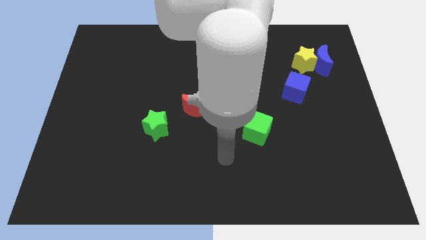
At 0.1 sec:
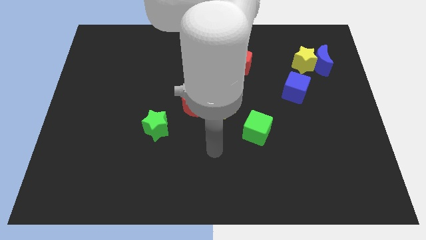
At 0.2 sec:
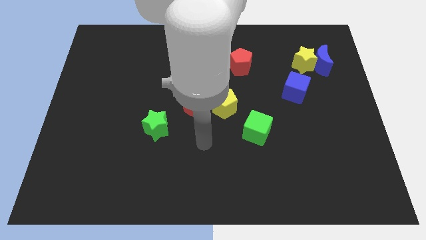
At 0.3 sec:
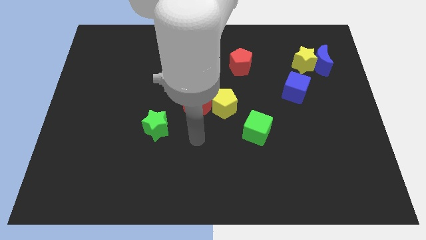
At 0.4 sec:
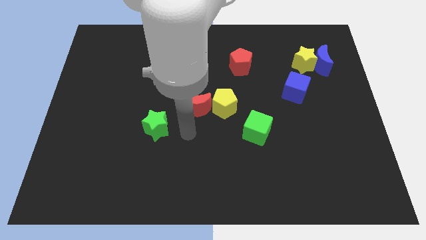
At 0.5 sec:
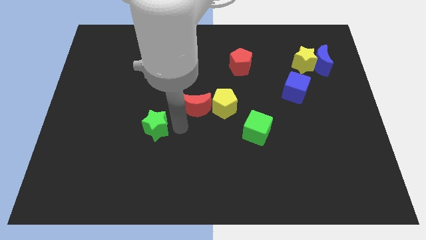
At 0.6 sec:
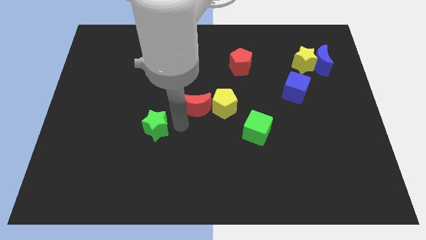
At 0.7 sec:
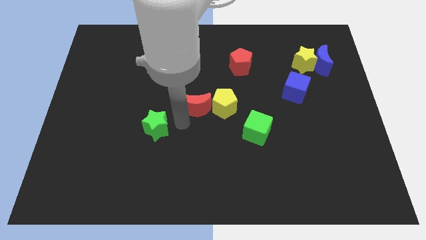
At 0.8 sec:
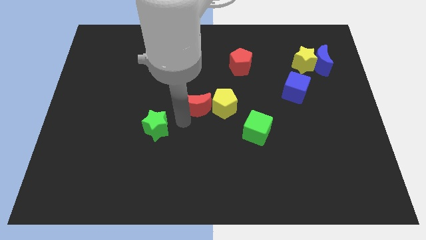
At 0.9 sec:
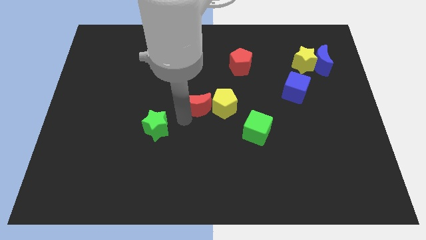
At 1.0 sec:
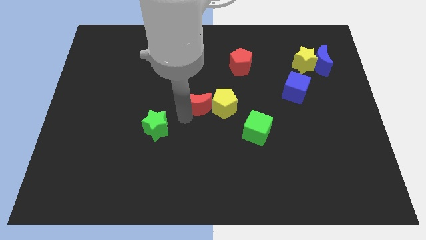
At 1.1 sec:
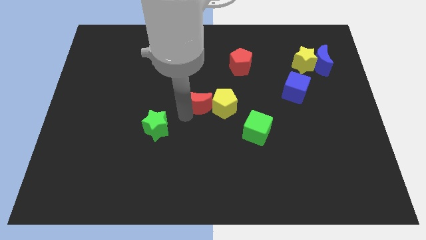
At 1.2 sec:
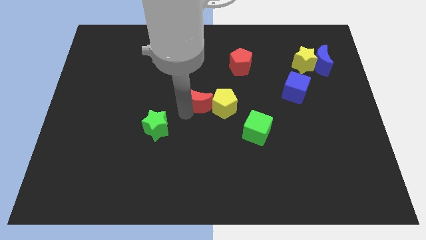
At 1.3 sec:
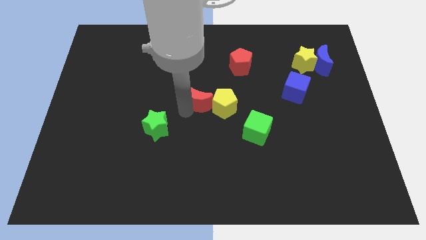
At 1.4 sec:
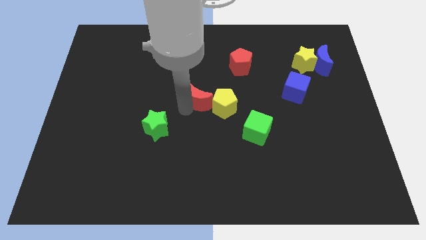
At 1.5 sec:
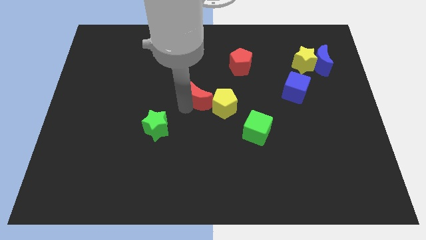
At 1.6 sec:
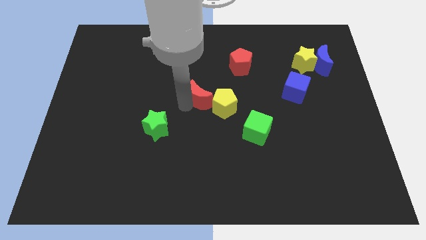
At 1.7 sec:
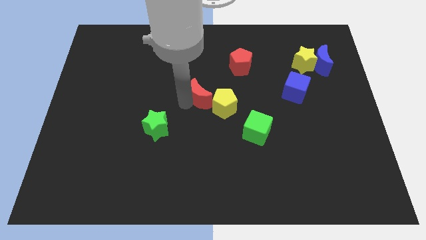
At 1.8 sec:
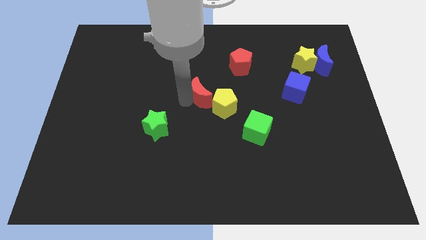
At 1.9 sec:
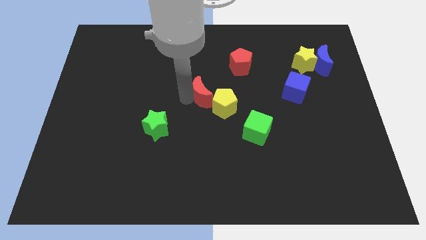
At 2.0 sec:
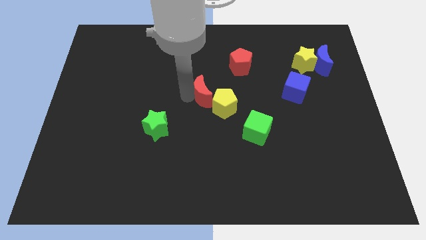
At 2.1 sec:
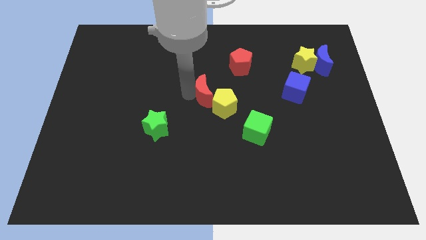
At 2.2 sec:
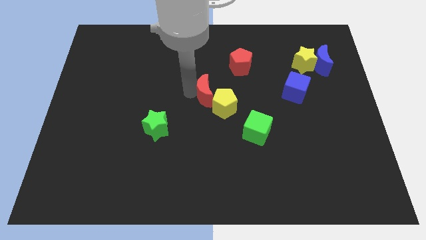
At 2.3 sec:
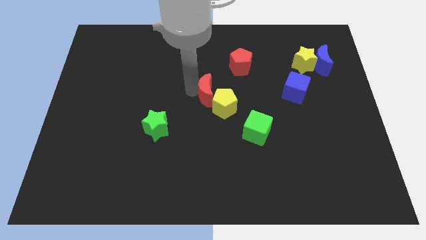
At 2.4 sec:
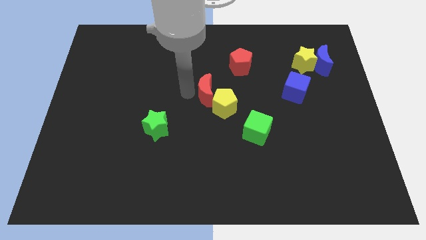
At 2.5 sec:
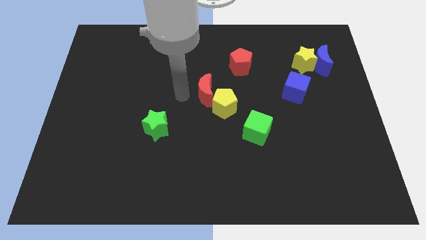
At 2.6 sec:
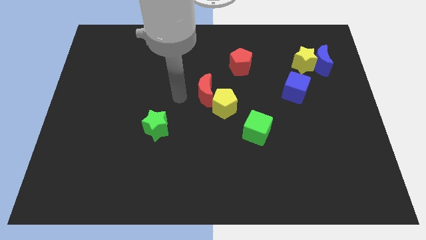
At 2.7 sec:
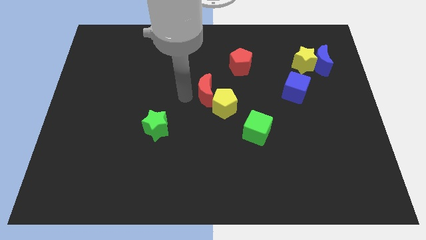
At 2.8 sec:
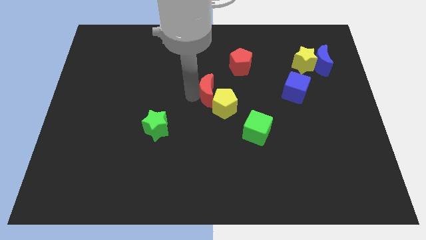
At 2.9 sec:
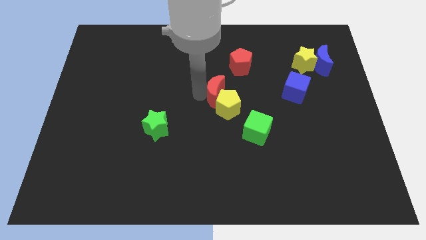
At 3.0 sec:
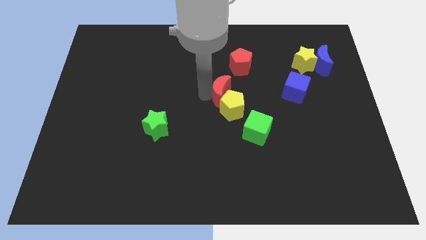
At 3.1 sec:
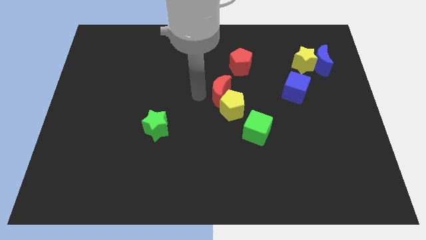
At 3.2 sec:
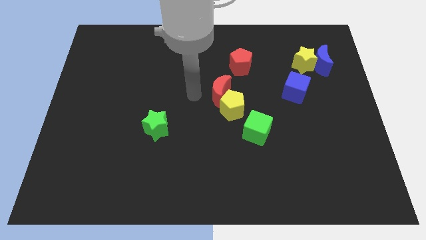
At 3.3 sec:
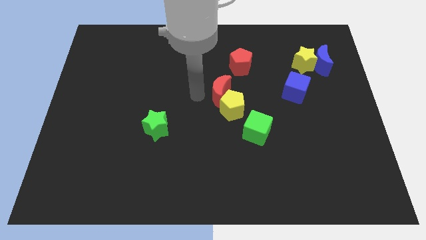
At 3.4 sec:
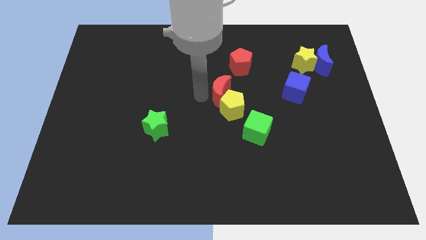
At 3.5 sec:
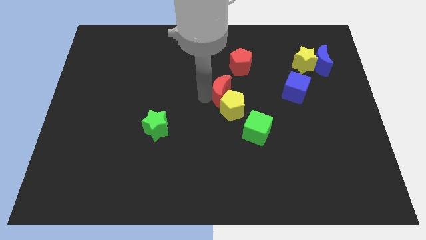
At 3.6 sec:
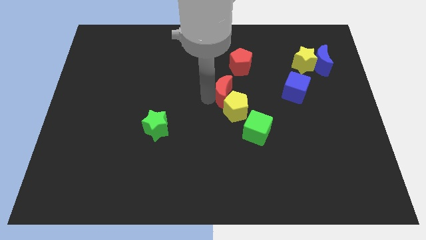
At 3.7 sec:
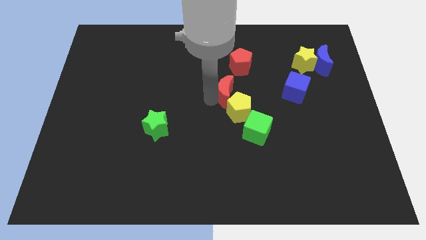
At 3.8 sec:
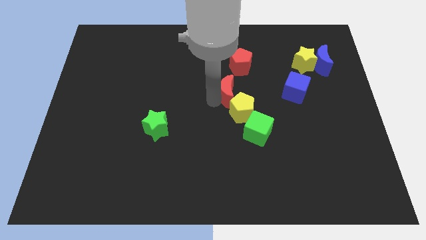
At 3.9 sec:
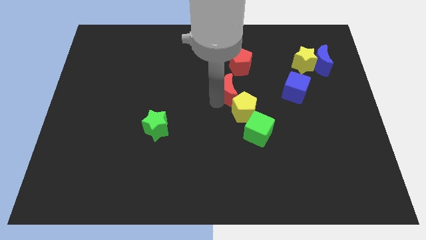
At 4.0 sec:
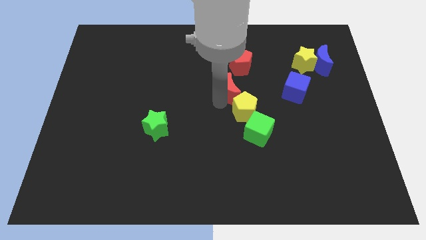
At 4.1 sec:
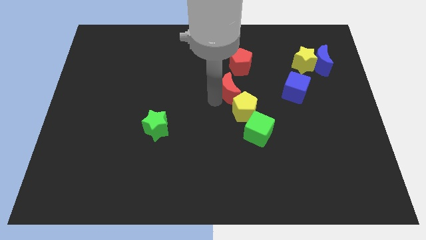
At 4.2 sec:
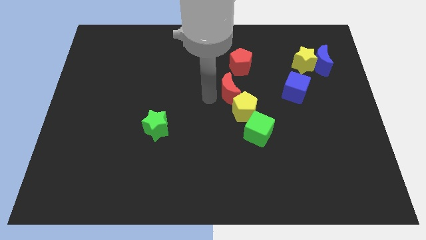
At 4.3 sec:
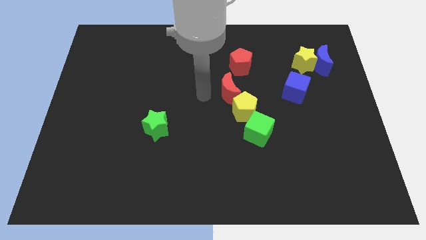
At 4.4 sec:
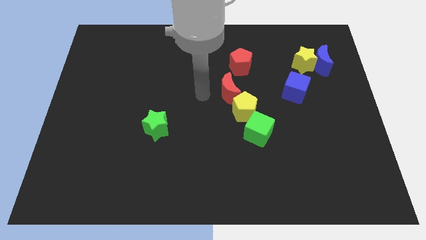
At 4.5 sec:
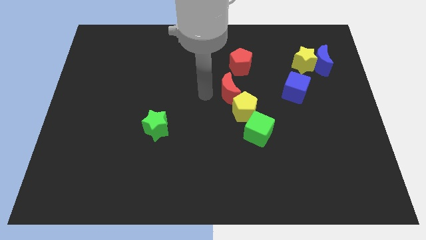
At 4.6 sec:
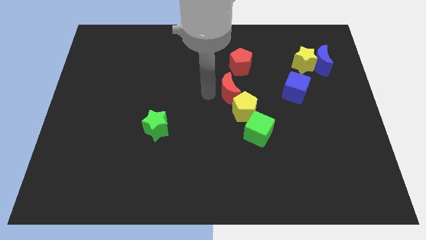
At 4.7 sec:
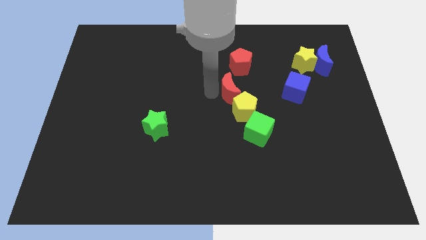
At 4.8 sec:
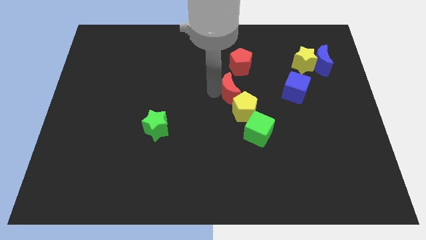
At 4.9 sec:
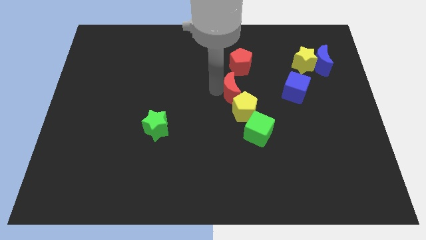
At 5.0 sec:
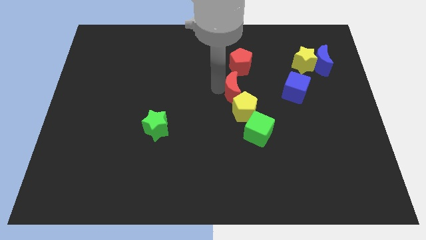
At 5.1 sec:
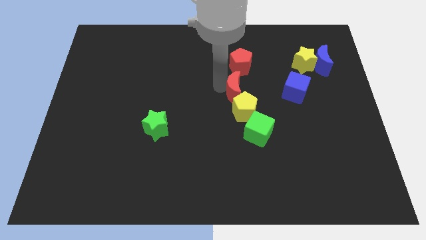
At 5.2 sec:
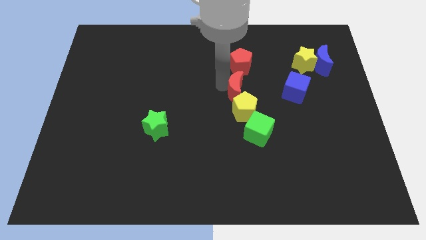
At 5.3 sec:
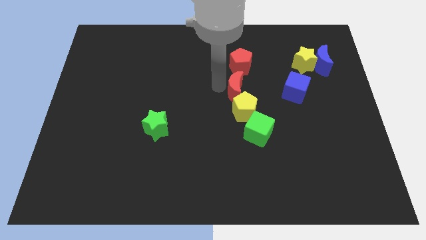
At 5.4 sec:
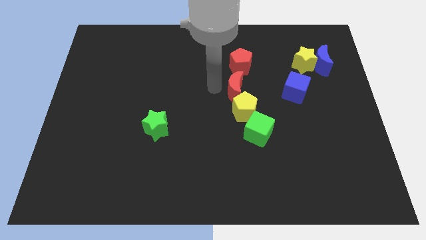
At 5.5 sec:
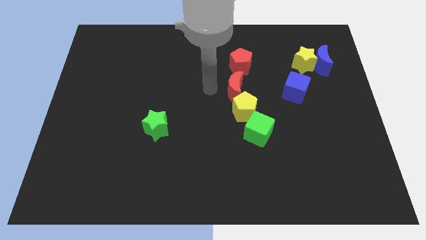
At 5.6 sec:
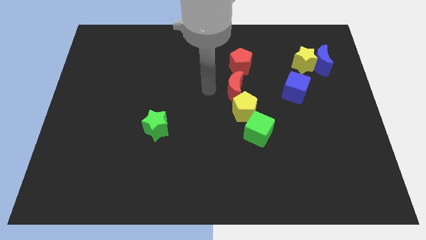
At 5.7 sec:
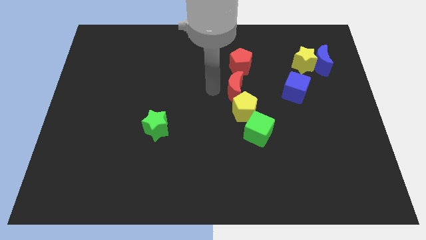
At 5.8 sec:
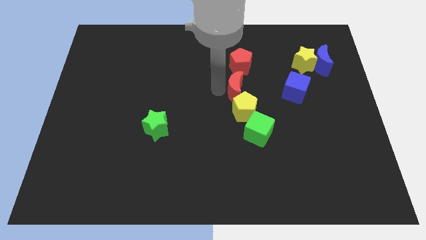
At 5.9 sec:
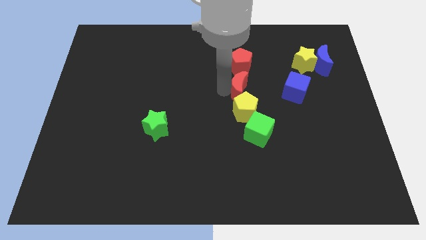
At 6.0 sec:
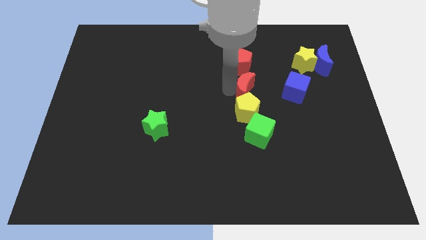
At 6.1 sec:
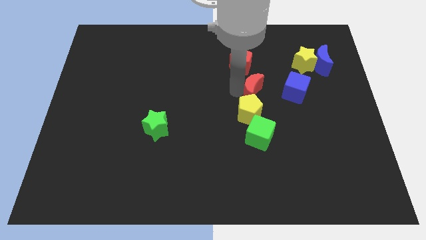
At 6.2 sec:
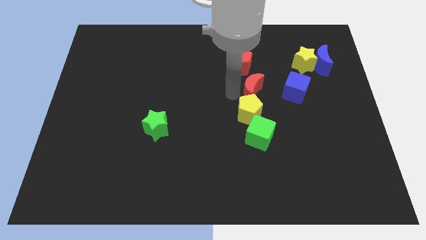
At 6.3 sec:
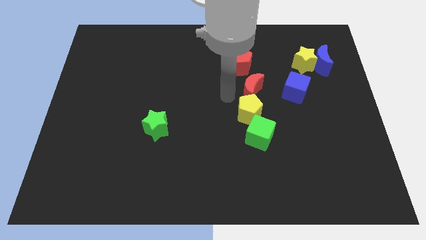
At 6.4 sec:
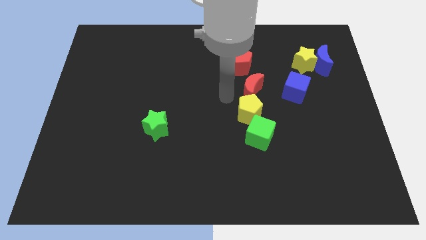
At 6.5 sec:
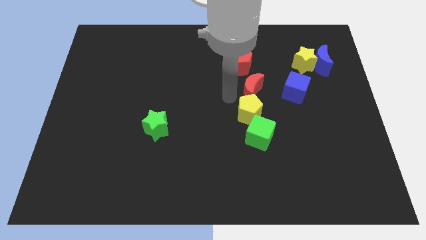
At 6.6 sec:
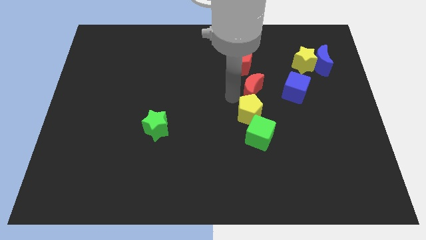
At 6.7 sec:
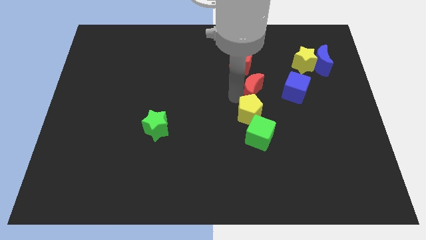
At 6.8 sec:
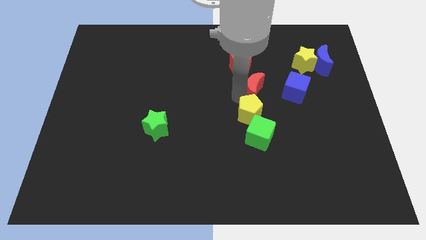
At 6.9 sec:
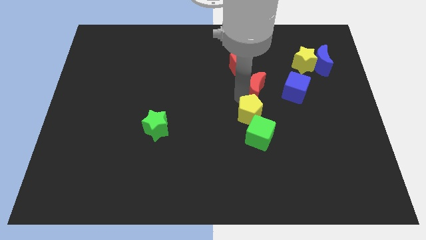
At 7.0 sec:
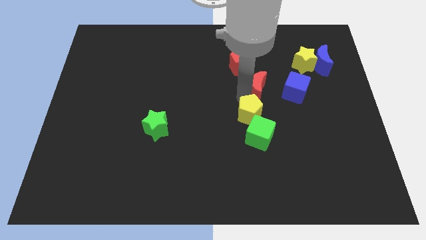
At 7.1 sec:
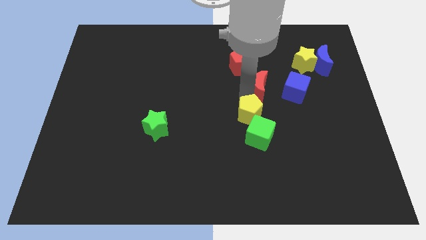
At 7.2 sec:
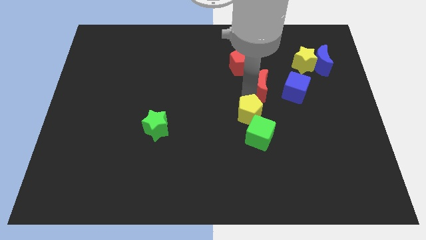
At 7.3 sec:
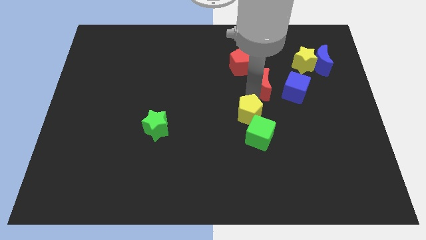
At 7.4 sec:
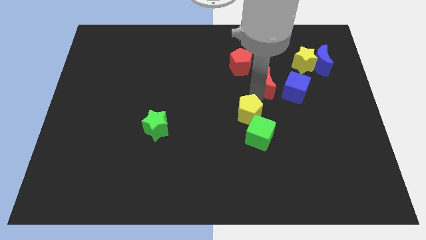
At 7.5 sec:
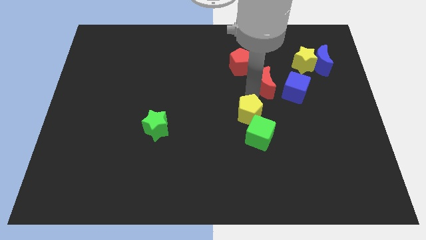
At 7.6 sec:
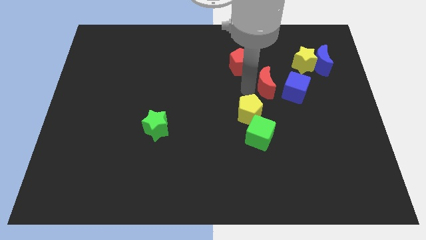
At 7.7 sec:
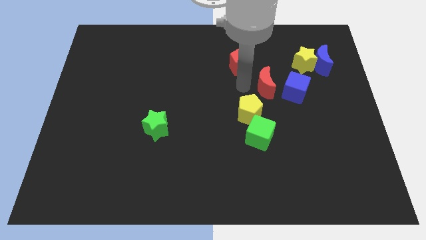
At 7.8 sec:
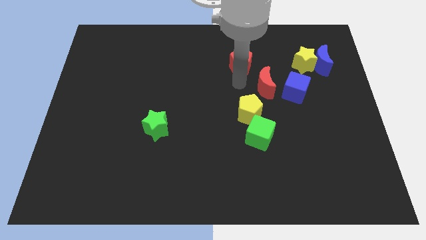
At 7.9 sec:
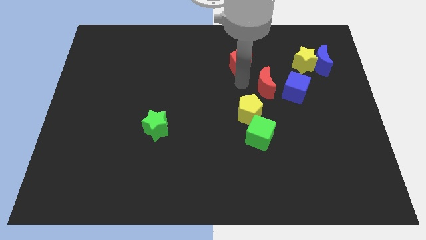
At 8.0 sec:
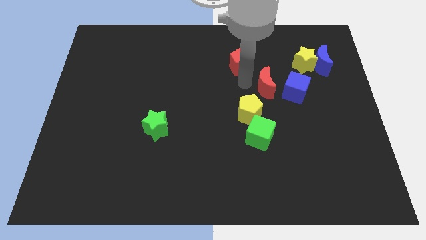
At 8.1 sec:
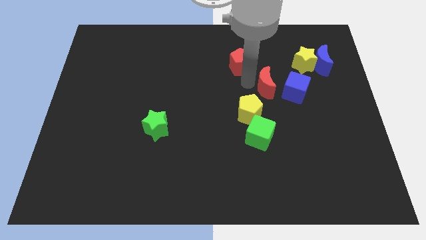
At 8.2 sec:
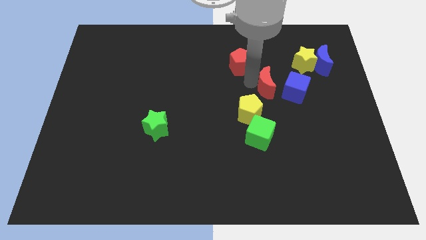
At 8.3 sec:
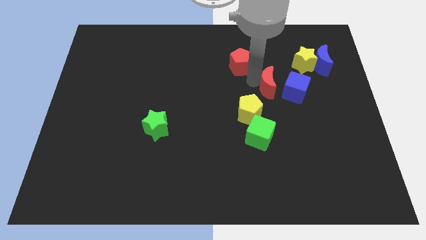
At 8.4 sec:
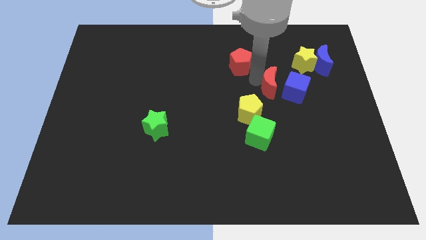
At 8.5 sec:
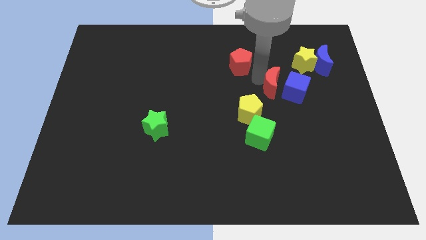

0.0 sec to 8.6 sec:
slide the red moon close to the blue cube
